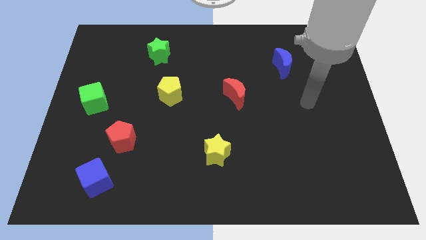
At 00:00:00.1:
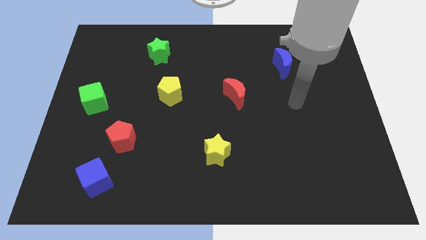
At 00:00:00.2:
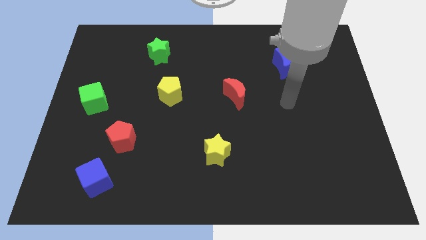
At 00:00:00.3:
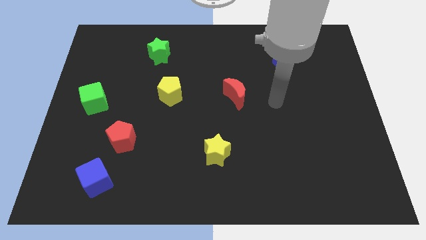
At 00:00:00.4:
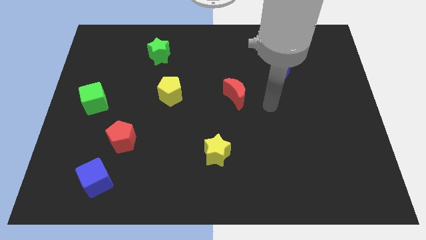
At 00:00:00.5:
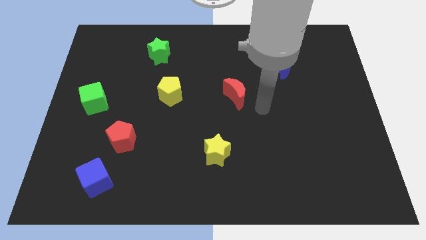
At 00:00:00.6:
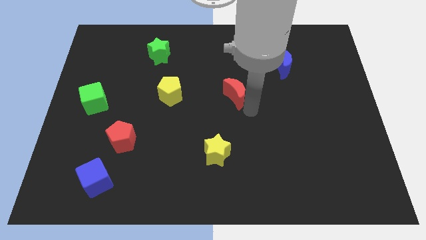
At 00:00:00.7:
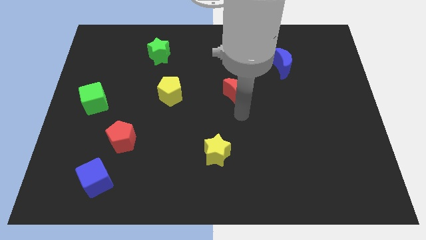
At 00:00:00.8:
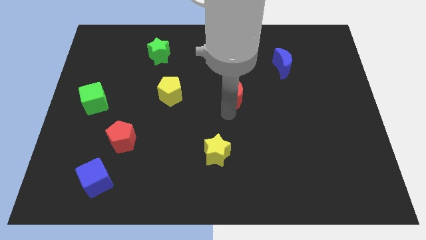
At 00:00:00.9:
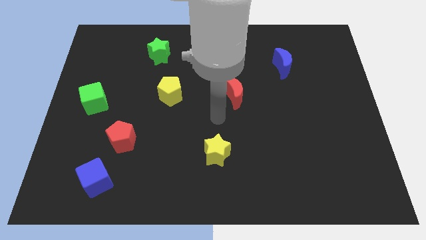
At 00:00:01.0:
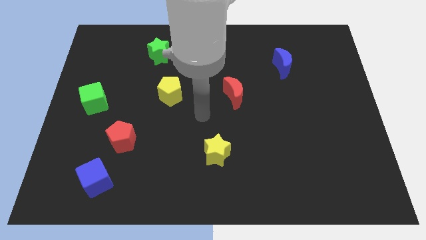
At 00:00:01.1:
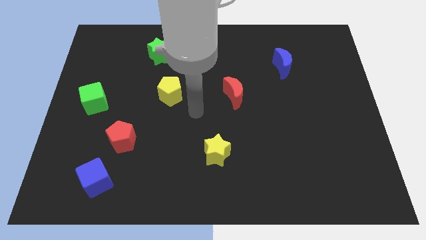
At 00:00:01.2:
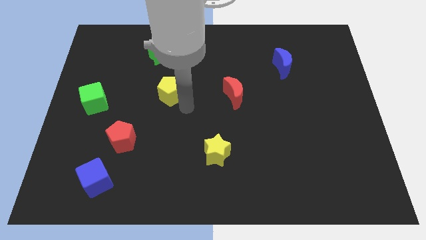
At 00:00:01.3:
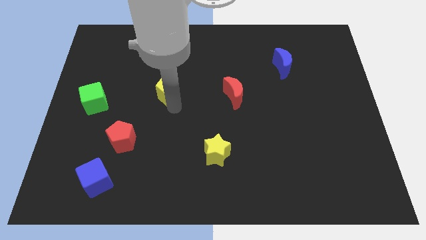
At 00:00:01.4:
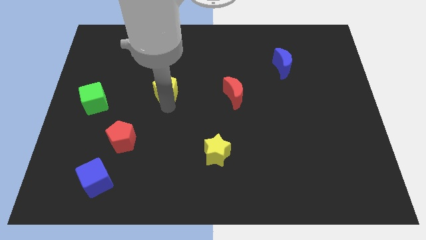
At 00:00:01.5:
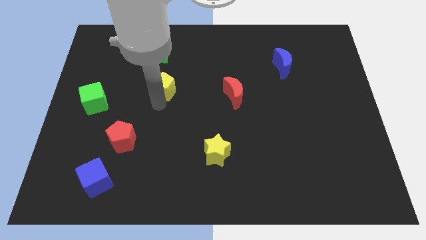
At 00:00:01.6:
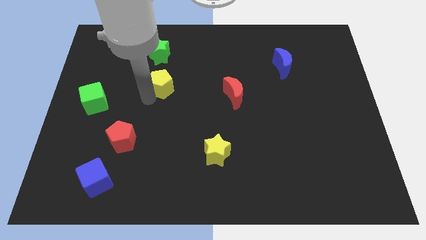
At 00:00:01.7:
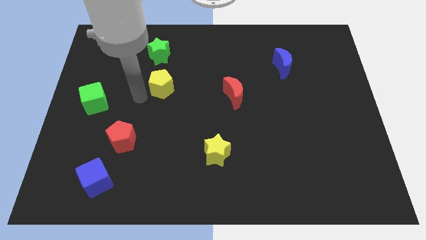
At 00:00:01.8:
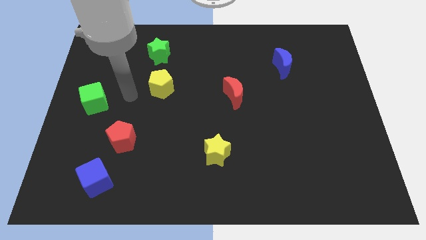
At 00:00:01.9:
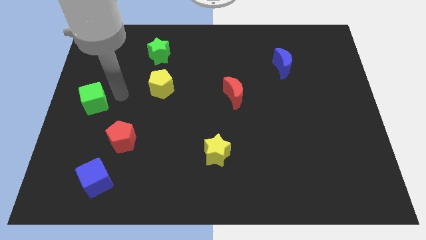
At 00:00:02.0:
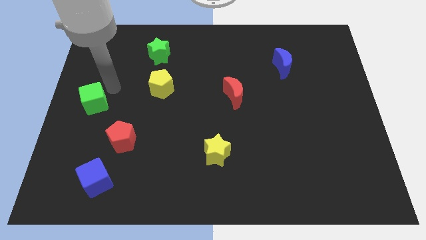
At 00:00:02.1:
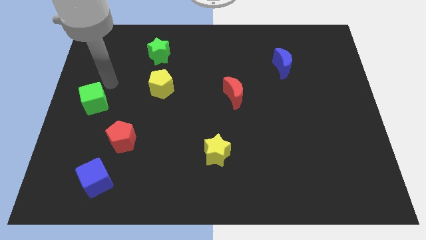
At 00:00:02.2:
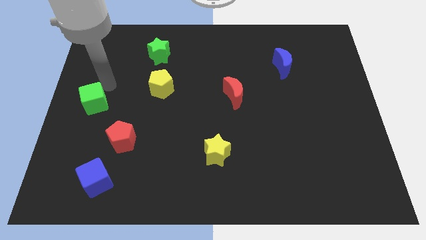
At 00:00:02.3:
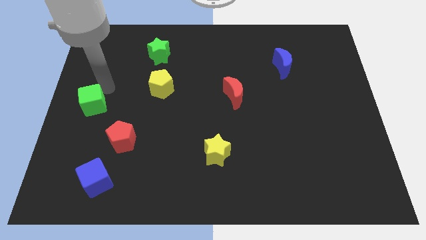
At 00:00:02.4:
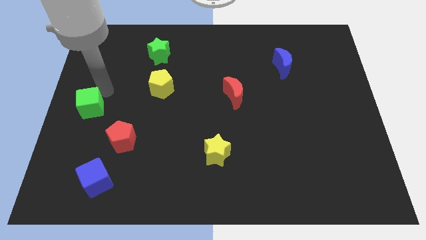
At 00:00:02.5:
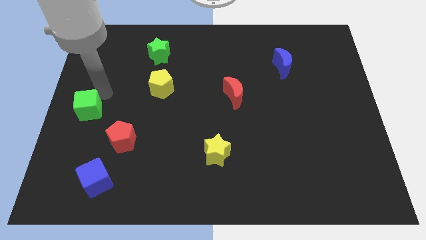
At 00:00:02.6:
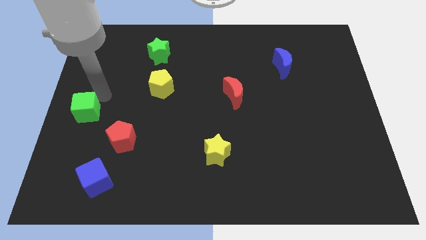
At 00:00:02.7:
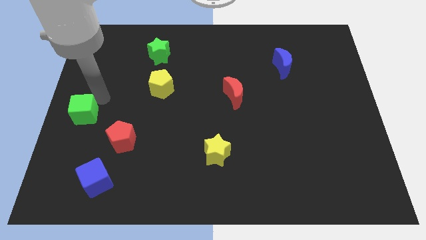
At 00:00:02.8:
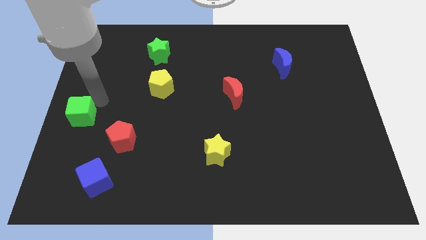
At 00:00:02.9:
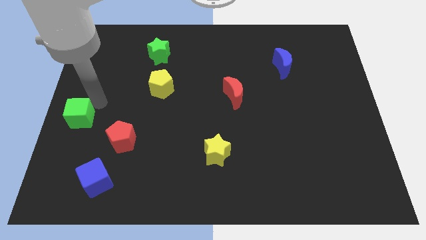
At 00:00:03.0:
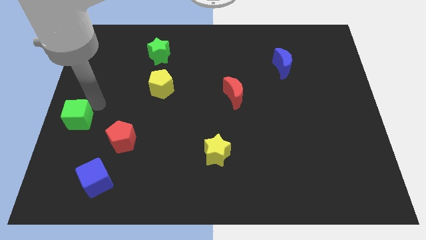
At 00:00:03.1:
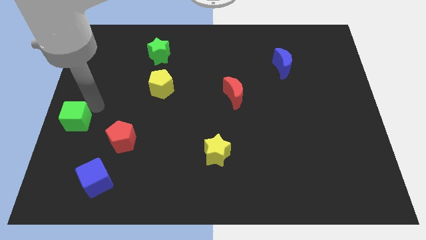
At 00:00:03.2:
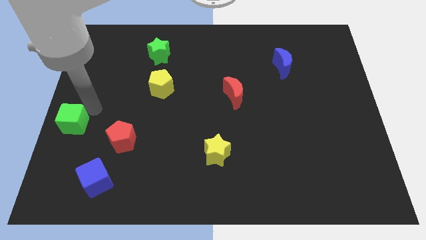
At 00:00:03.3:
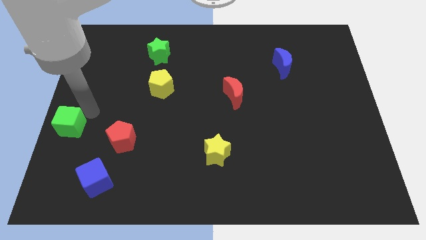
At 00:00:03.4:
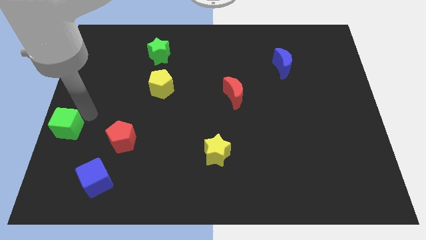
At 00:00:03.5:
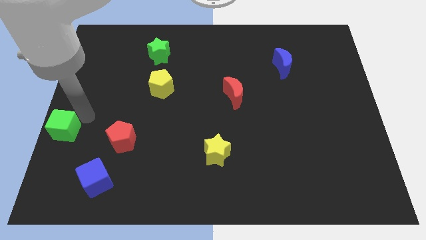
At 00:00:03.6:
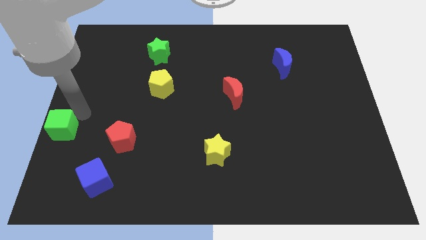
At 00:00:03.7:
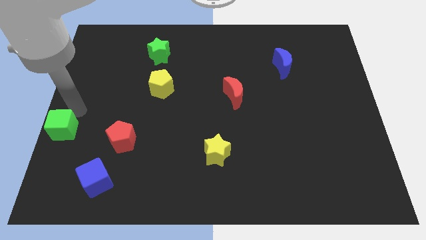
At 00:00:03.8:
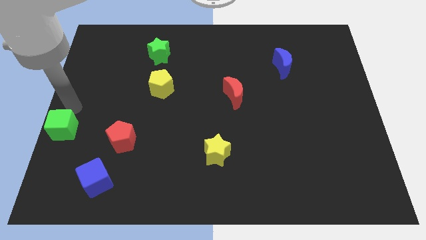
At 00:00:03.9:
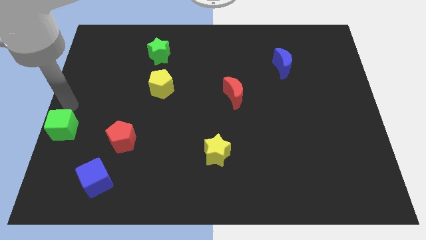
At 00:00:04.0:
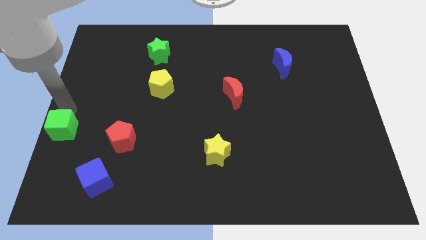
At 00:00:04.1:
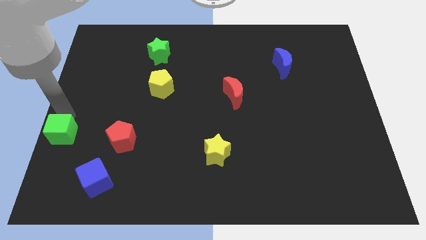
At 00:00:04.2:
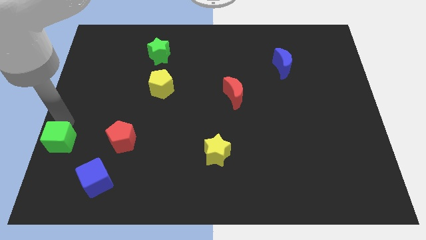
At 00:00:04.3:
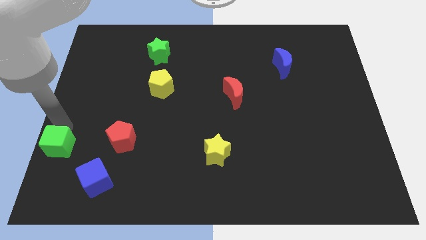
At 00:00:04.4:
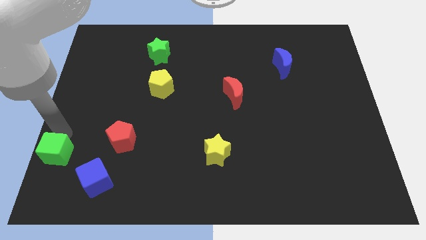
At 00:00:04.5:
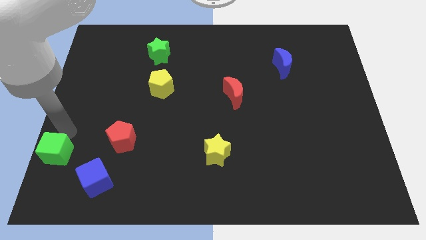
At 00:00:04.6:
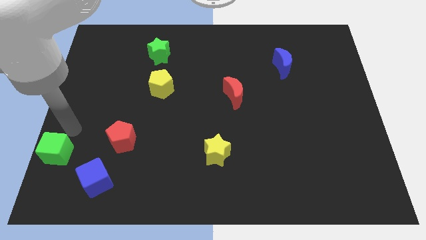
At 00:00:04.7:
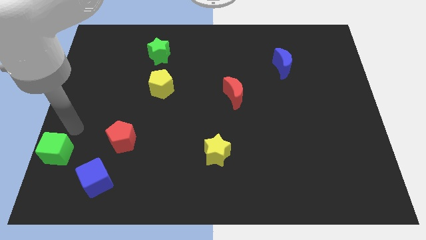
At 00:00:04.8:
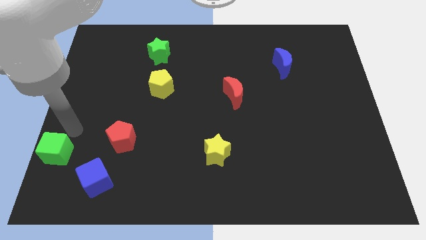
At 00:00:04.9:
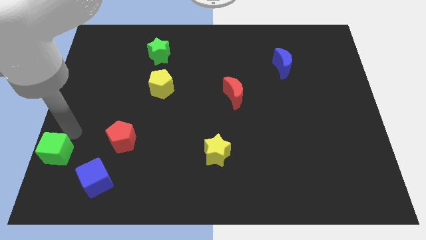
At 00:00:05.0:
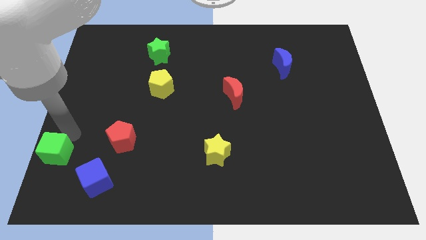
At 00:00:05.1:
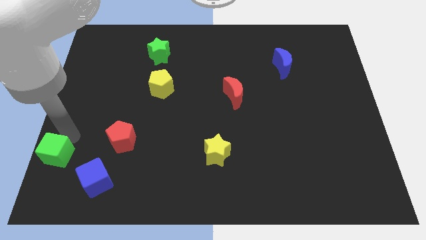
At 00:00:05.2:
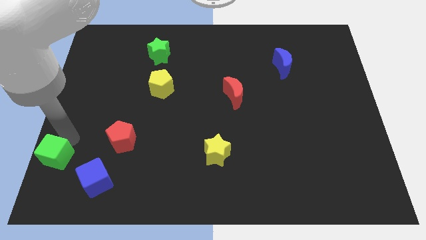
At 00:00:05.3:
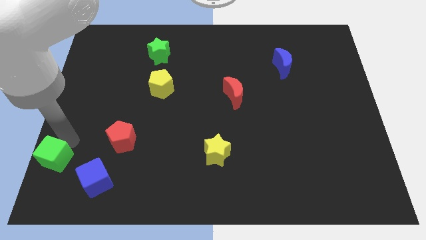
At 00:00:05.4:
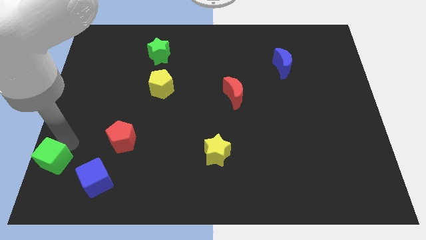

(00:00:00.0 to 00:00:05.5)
slide the green cube to the bottom left of the board
